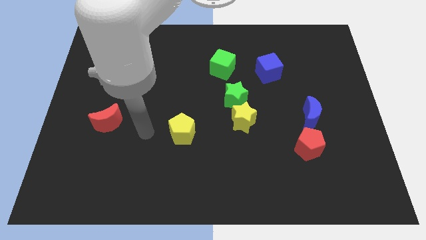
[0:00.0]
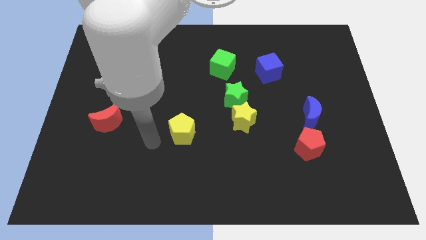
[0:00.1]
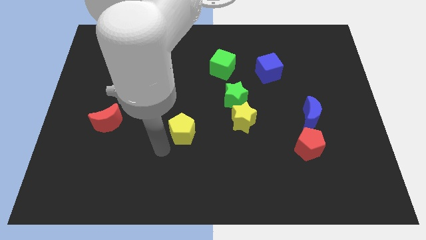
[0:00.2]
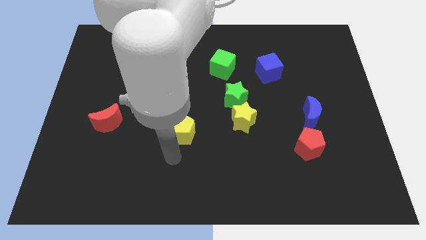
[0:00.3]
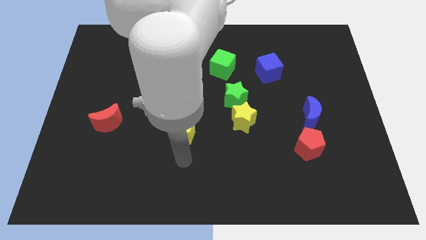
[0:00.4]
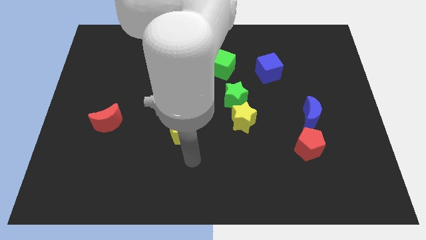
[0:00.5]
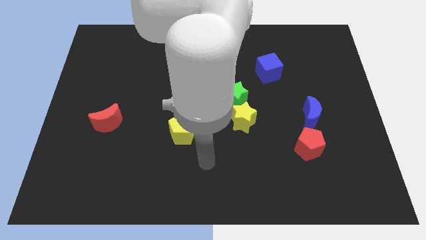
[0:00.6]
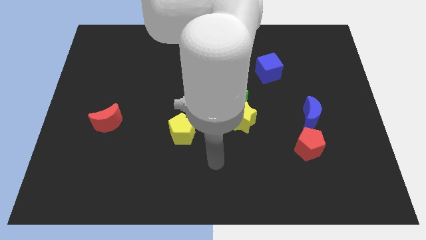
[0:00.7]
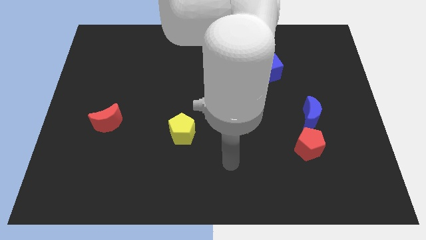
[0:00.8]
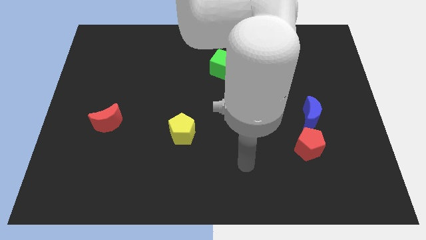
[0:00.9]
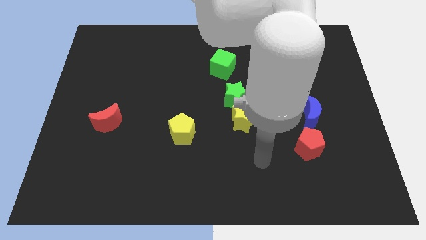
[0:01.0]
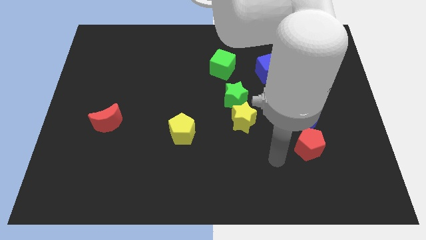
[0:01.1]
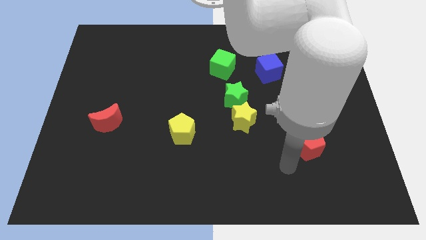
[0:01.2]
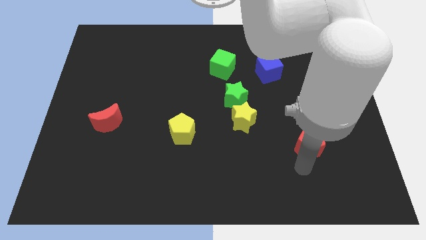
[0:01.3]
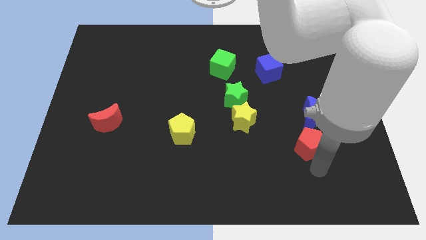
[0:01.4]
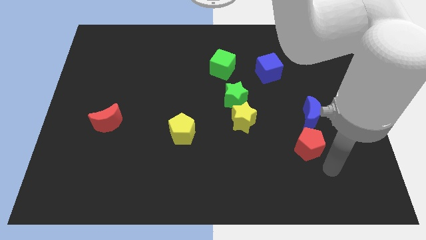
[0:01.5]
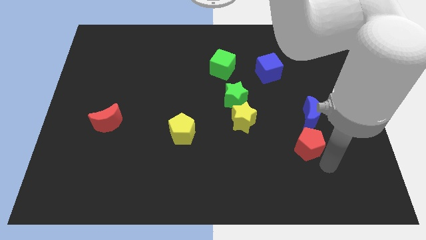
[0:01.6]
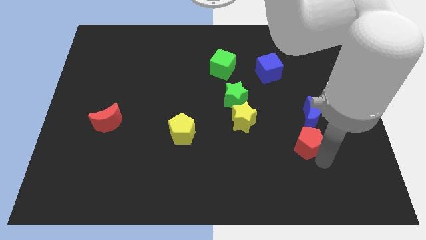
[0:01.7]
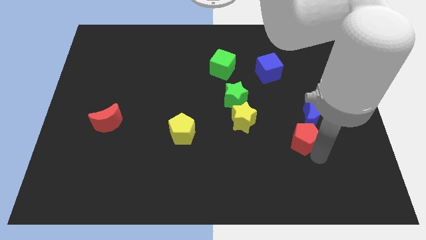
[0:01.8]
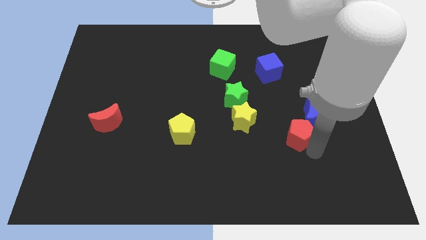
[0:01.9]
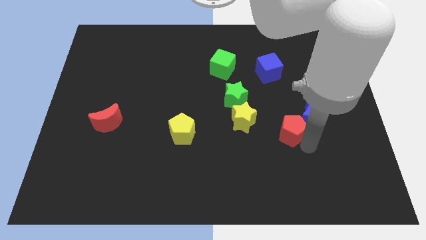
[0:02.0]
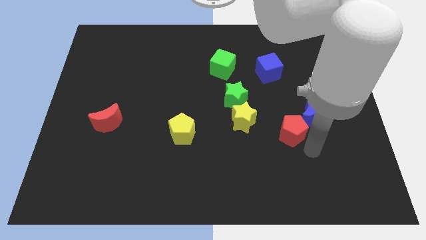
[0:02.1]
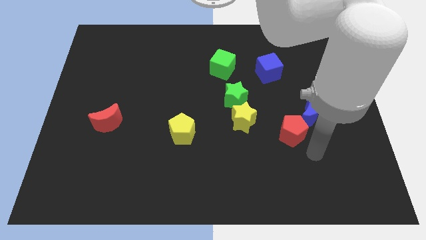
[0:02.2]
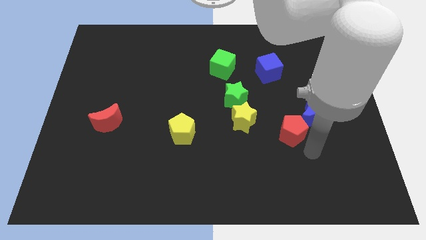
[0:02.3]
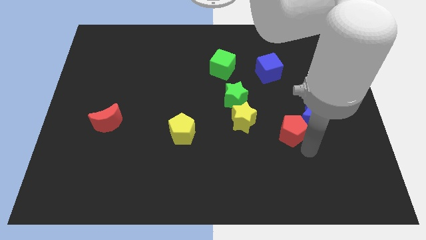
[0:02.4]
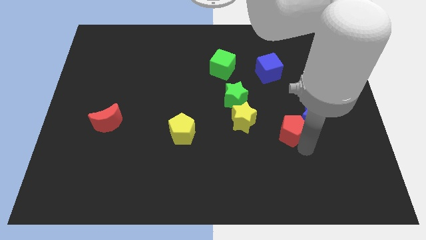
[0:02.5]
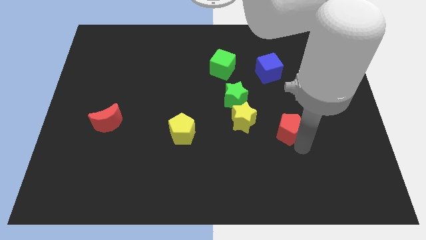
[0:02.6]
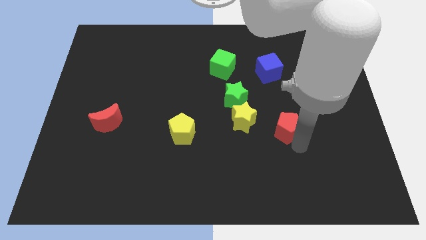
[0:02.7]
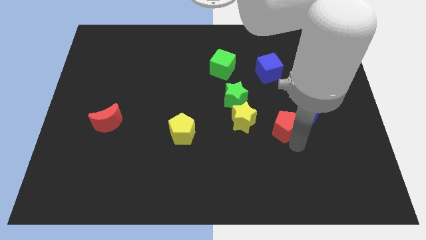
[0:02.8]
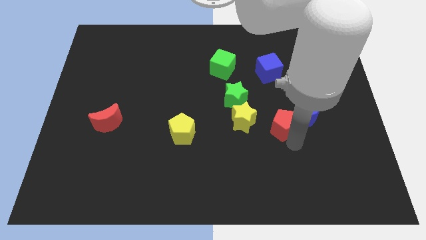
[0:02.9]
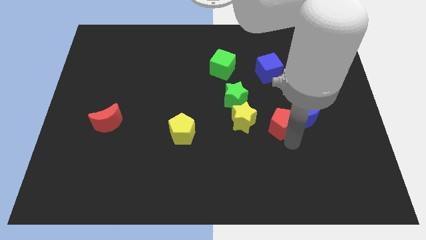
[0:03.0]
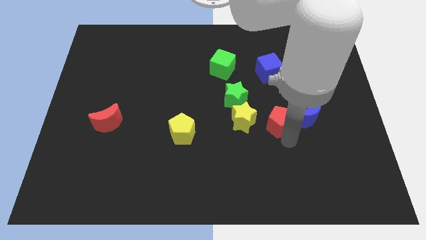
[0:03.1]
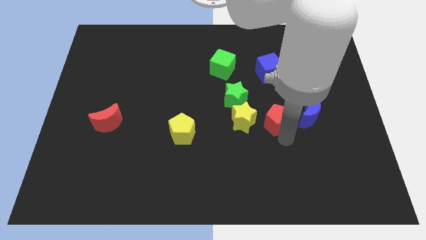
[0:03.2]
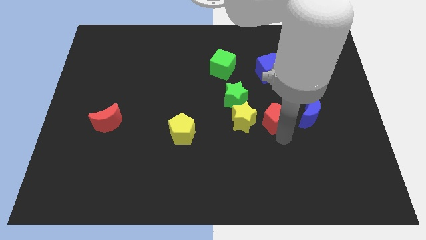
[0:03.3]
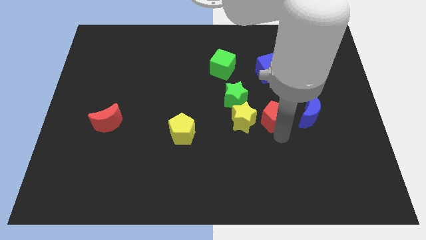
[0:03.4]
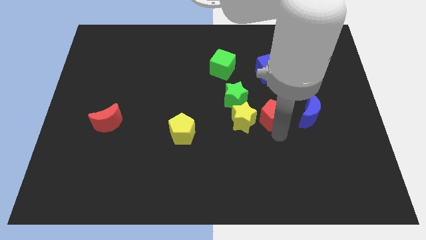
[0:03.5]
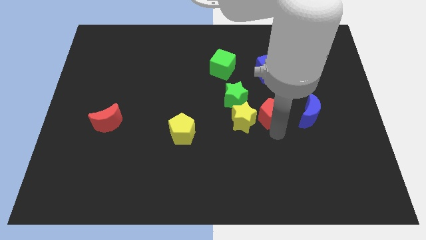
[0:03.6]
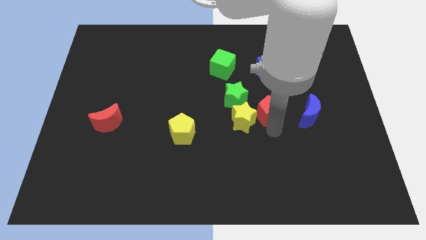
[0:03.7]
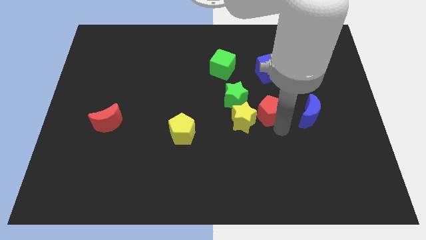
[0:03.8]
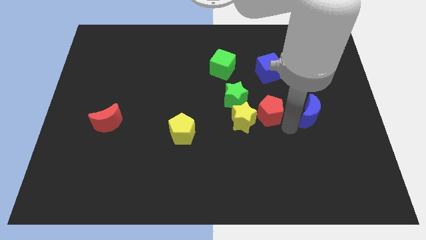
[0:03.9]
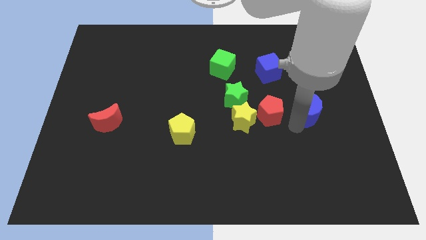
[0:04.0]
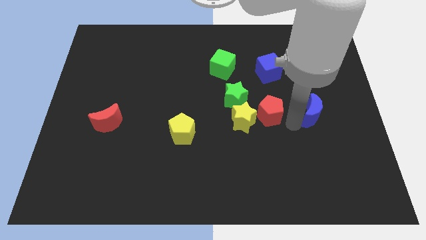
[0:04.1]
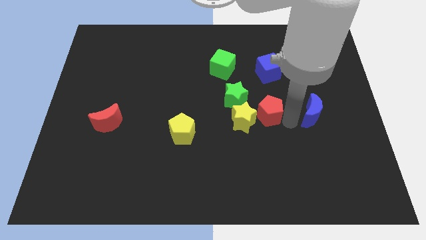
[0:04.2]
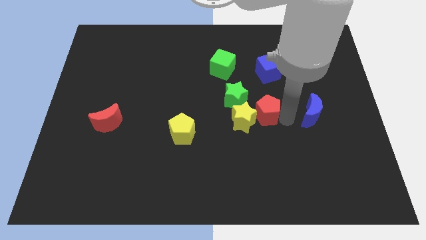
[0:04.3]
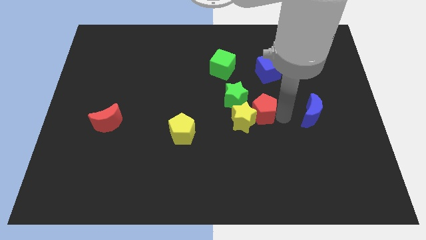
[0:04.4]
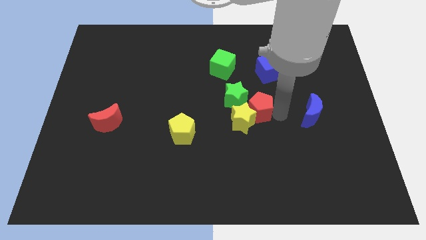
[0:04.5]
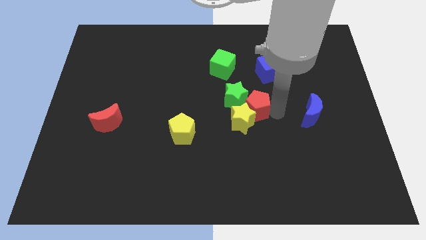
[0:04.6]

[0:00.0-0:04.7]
push the red pentagon next to the green star

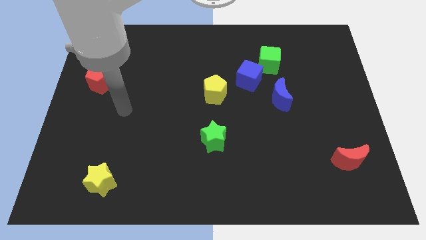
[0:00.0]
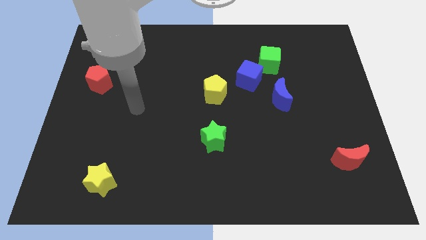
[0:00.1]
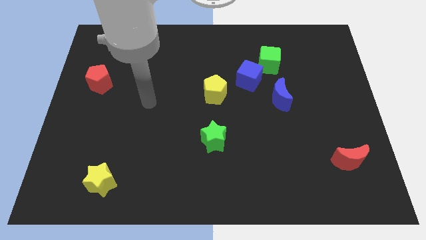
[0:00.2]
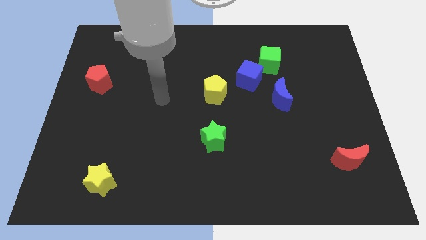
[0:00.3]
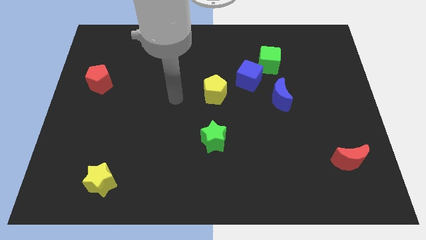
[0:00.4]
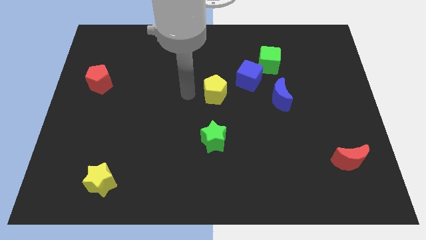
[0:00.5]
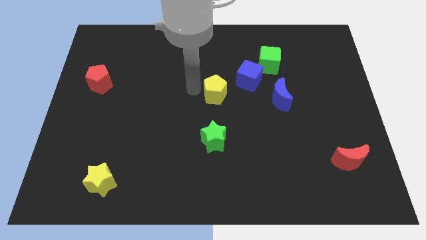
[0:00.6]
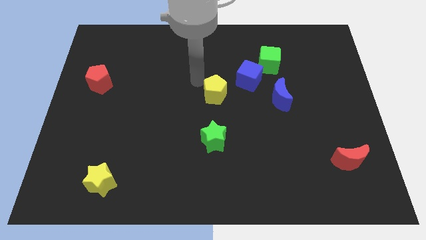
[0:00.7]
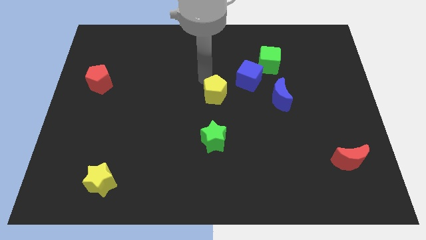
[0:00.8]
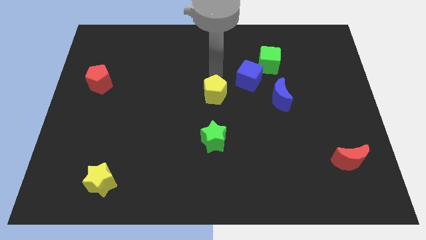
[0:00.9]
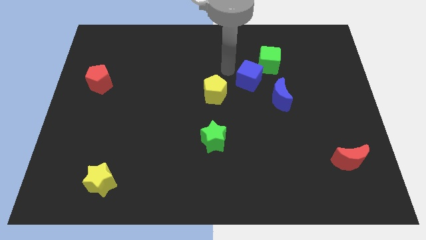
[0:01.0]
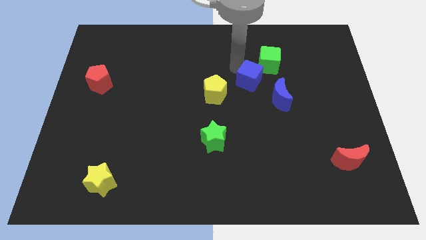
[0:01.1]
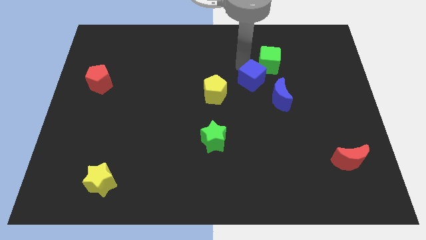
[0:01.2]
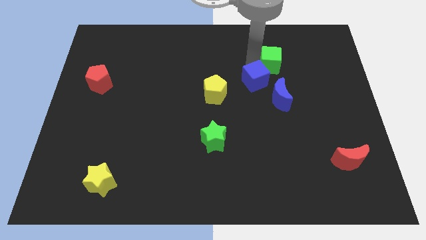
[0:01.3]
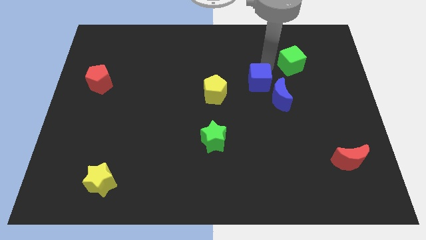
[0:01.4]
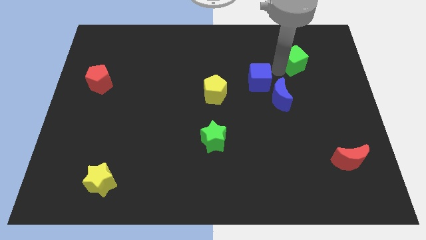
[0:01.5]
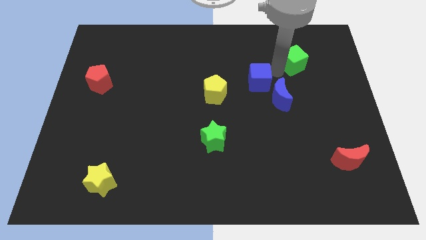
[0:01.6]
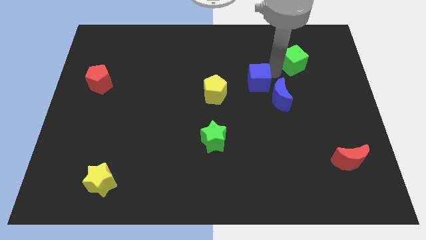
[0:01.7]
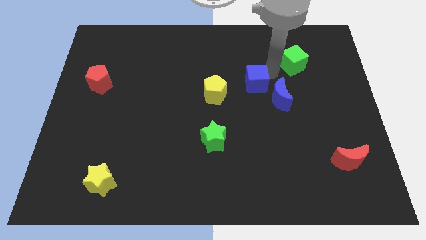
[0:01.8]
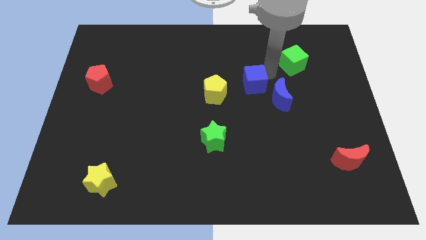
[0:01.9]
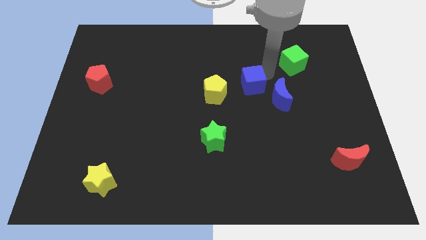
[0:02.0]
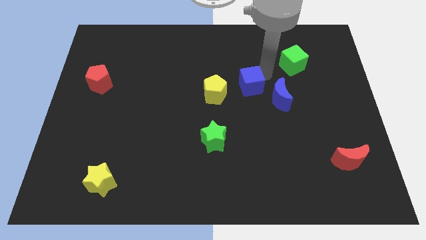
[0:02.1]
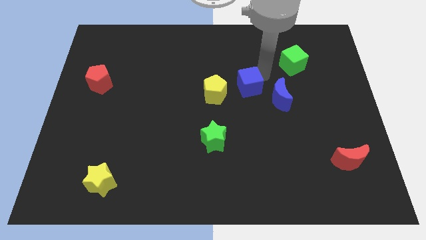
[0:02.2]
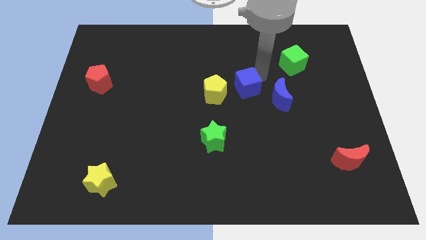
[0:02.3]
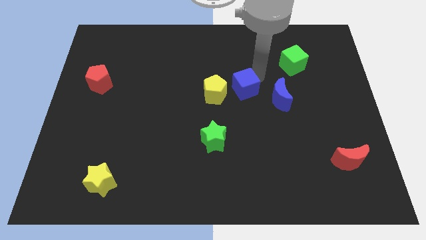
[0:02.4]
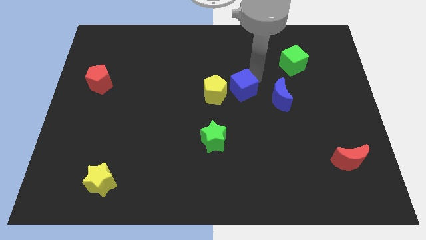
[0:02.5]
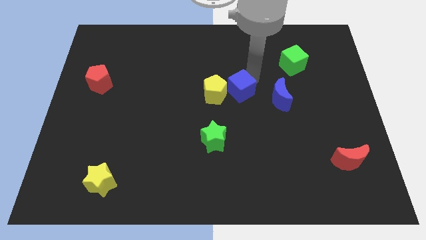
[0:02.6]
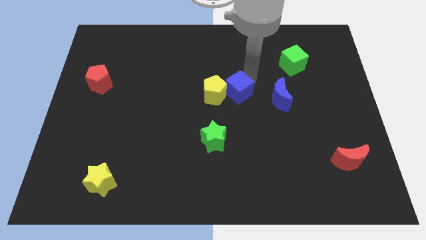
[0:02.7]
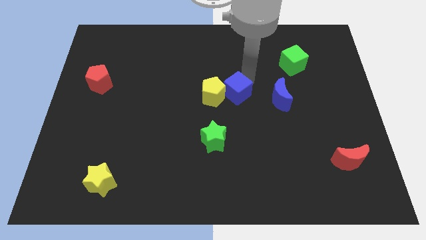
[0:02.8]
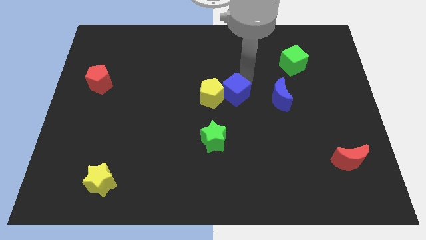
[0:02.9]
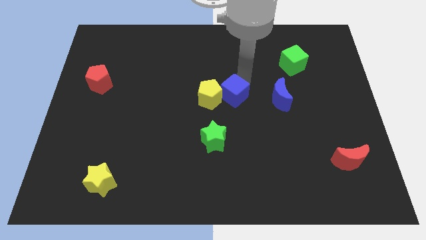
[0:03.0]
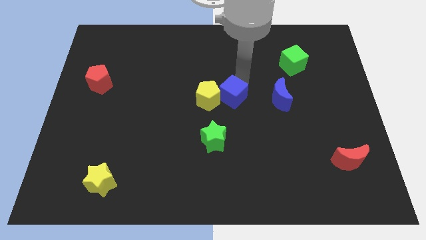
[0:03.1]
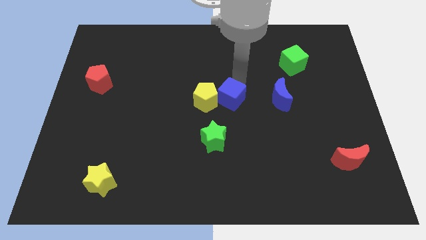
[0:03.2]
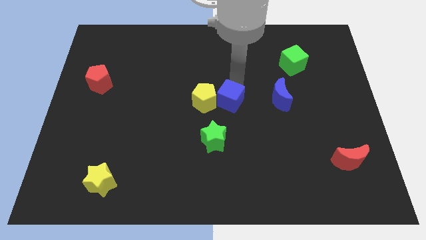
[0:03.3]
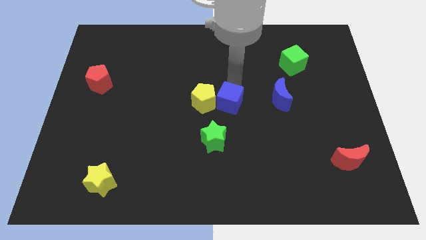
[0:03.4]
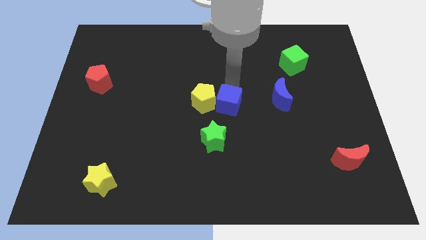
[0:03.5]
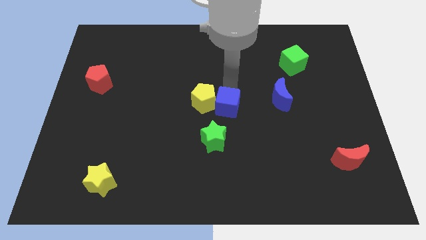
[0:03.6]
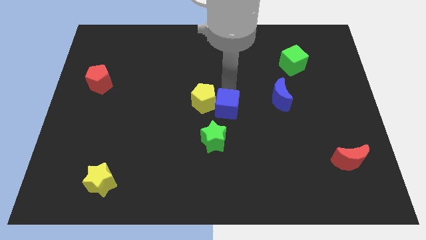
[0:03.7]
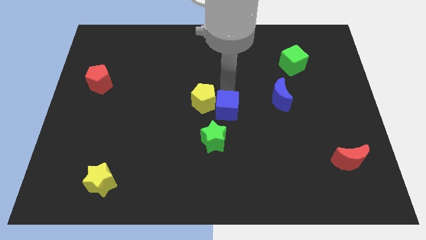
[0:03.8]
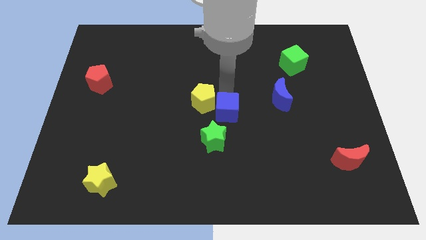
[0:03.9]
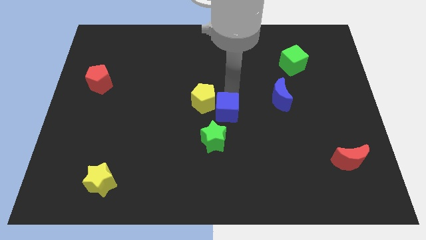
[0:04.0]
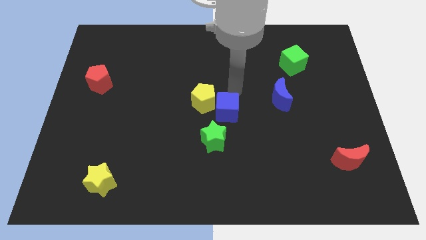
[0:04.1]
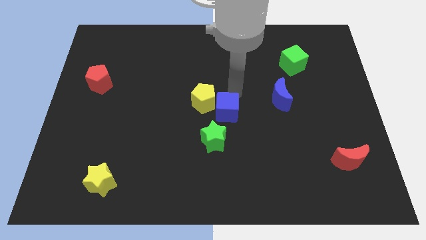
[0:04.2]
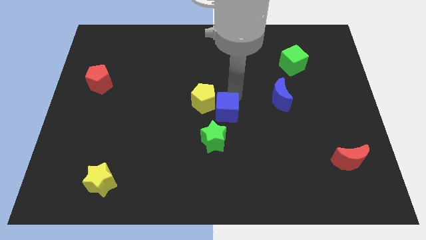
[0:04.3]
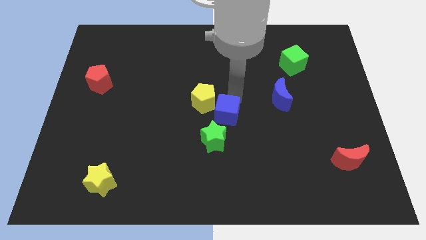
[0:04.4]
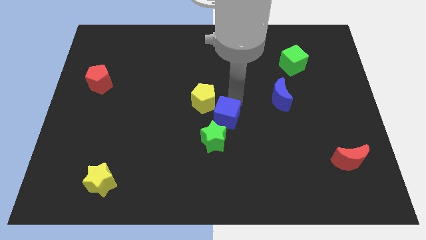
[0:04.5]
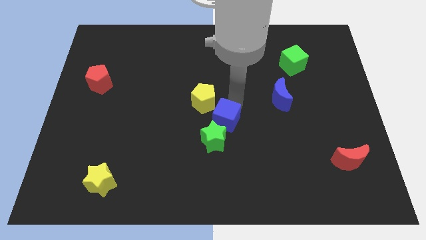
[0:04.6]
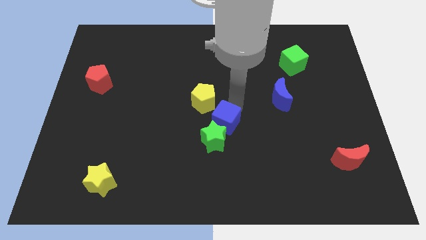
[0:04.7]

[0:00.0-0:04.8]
push the blue cube next to the green star
